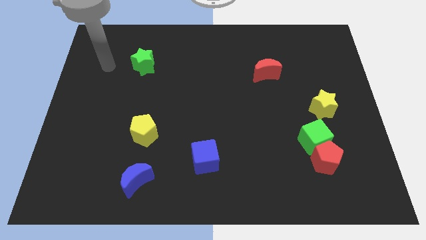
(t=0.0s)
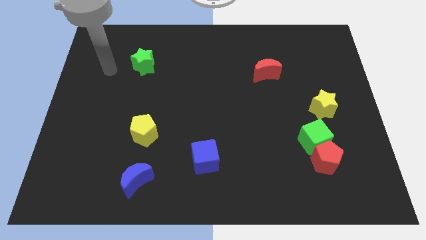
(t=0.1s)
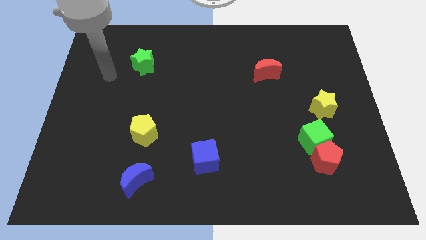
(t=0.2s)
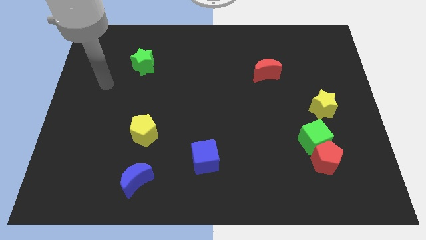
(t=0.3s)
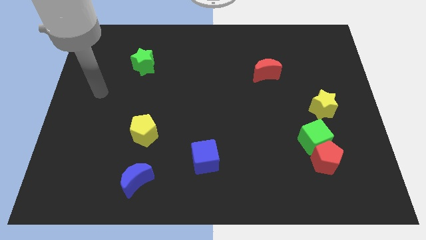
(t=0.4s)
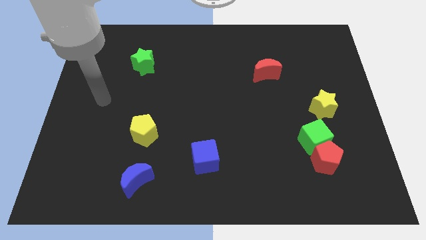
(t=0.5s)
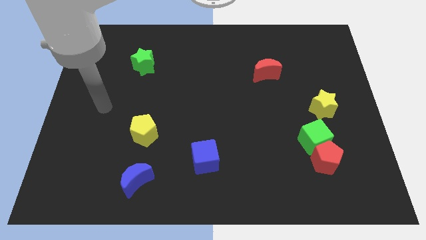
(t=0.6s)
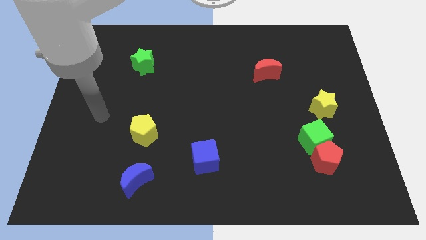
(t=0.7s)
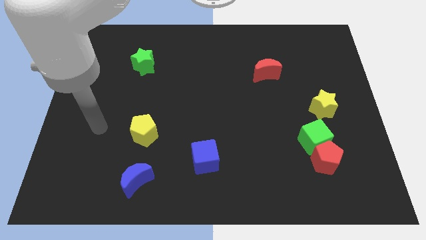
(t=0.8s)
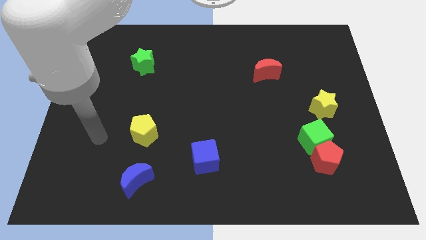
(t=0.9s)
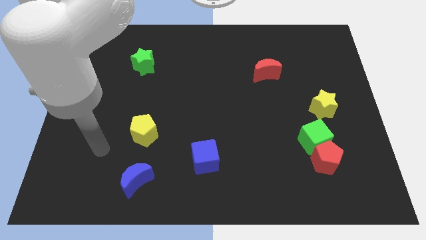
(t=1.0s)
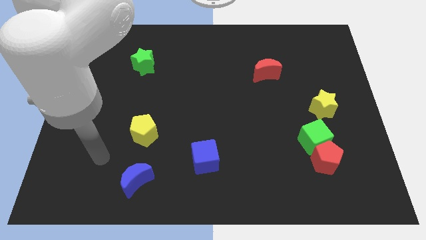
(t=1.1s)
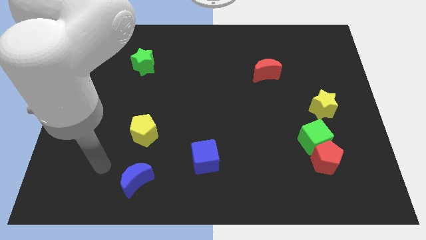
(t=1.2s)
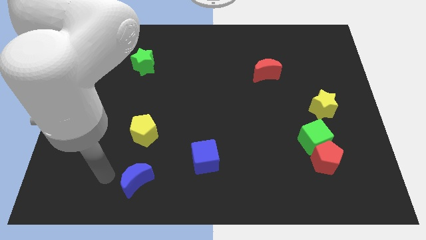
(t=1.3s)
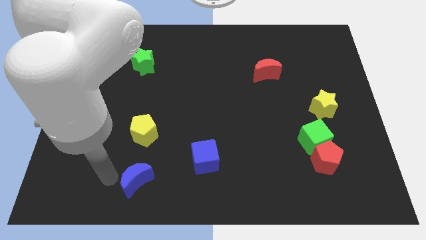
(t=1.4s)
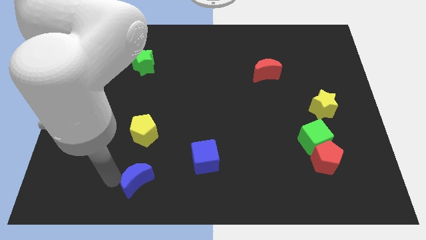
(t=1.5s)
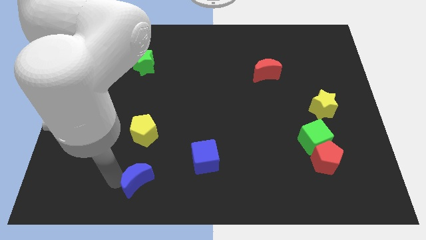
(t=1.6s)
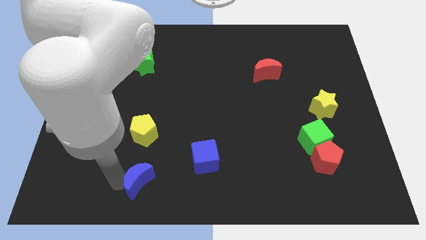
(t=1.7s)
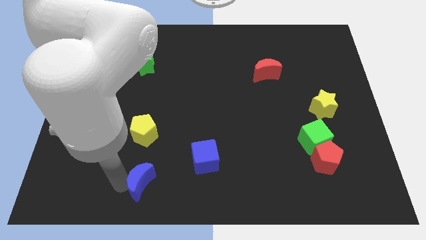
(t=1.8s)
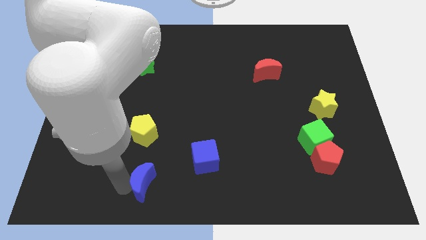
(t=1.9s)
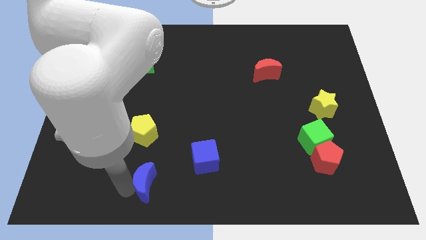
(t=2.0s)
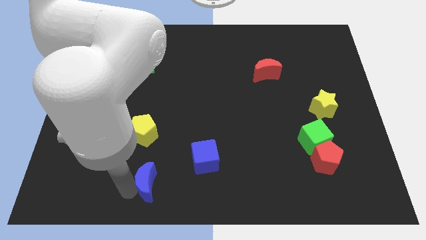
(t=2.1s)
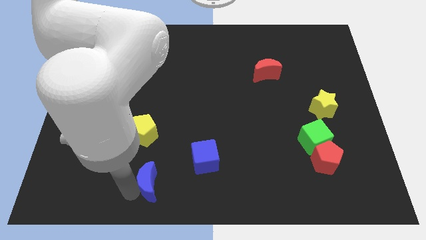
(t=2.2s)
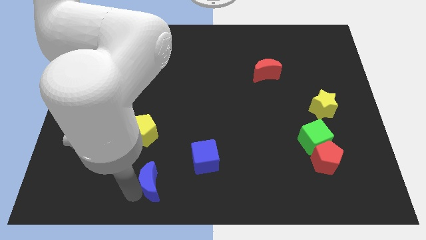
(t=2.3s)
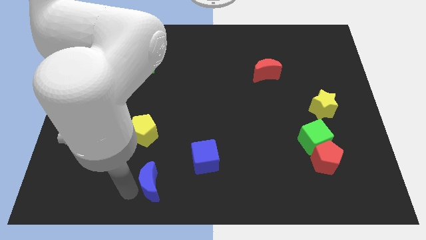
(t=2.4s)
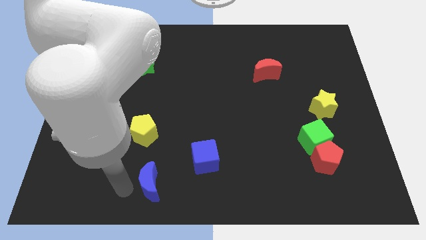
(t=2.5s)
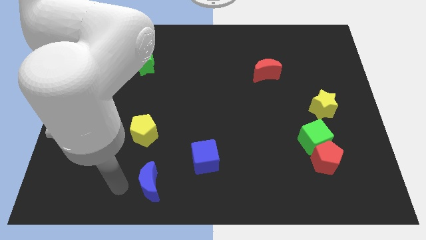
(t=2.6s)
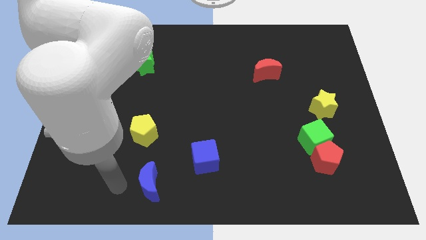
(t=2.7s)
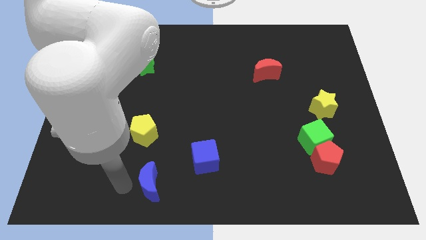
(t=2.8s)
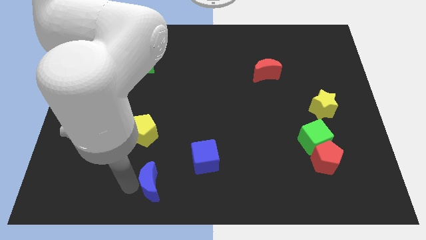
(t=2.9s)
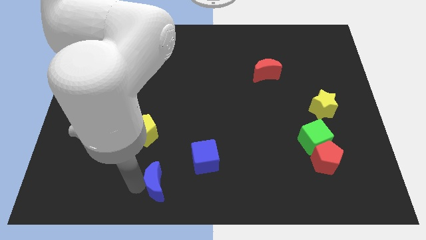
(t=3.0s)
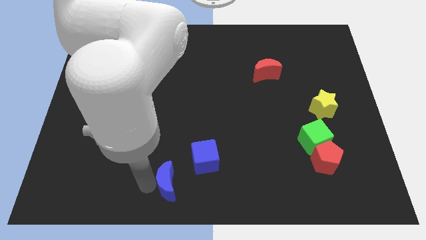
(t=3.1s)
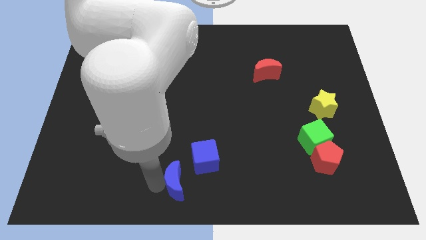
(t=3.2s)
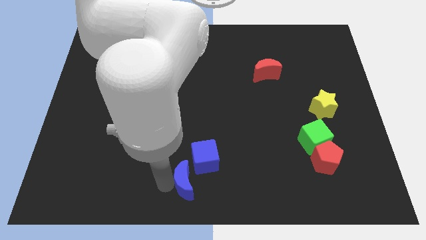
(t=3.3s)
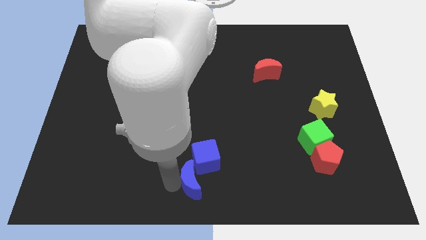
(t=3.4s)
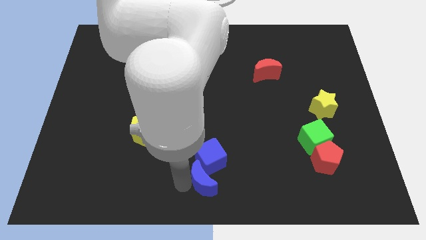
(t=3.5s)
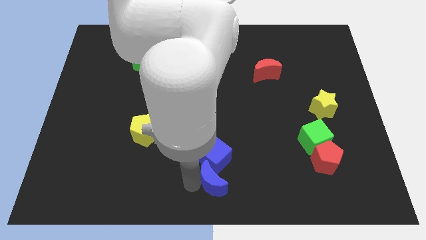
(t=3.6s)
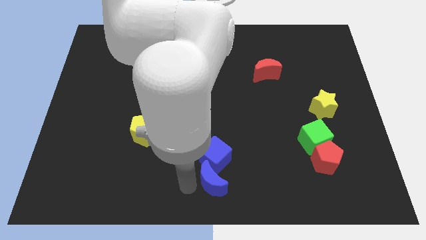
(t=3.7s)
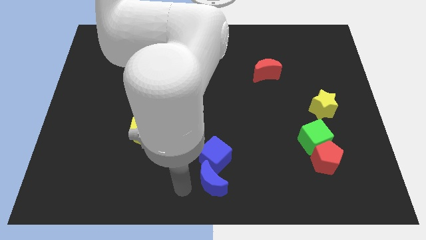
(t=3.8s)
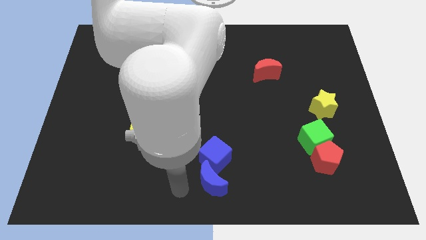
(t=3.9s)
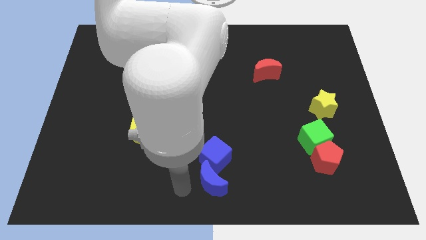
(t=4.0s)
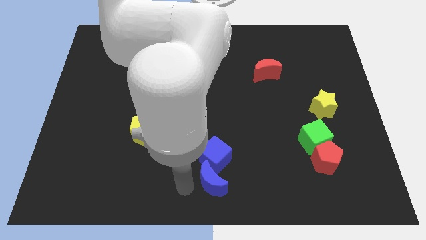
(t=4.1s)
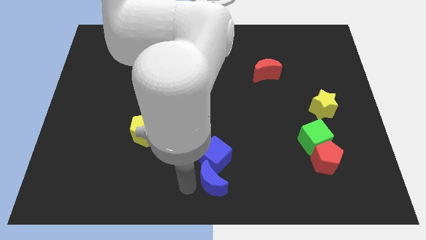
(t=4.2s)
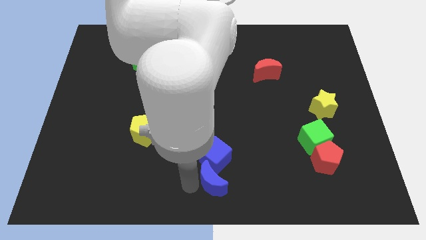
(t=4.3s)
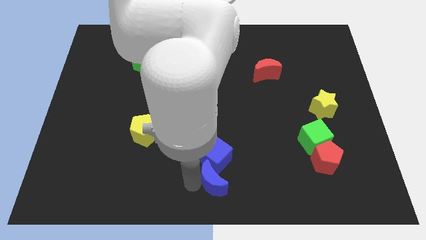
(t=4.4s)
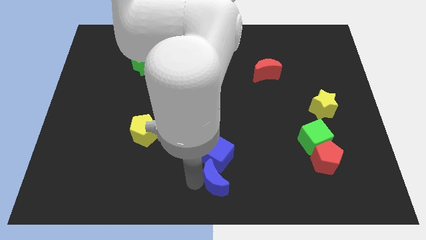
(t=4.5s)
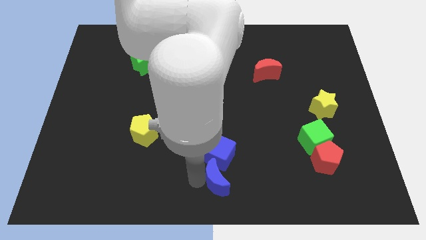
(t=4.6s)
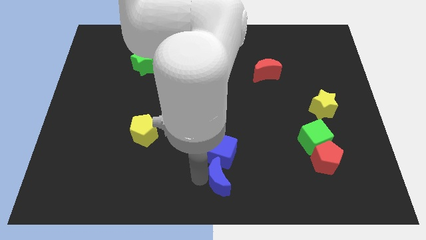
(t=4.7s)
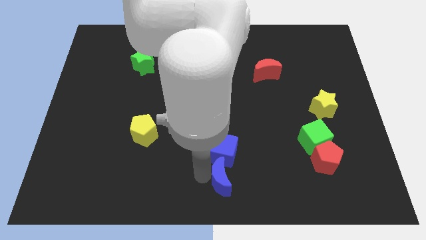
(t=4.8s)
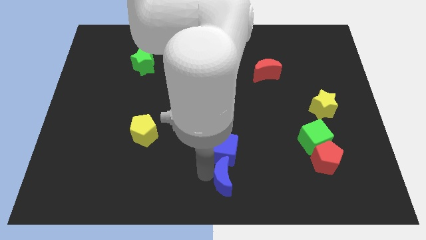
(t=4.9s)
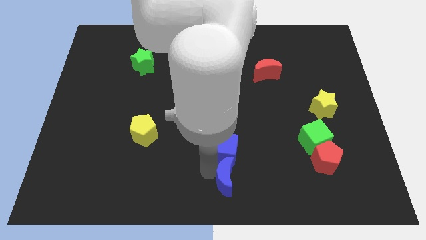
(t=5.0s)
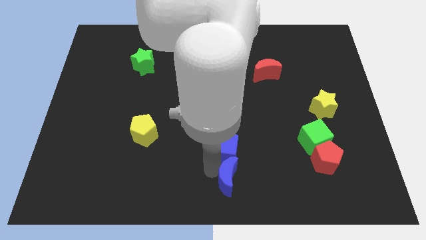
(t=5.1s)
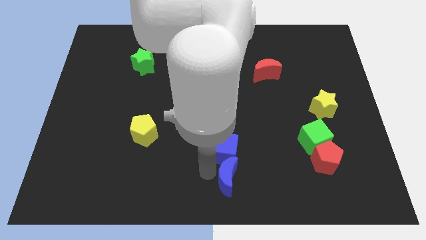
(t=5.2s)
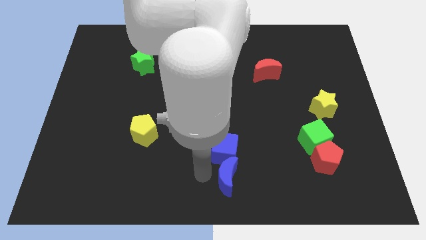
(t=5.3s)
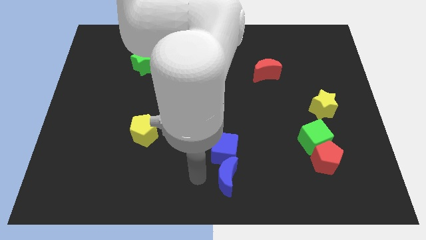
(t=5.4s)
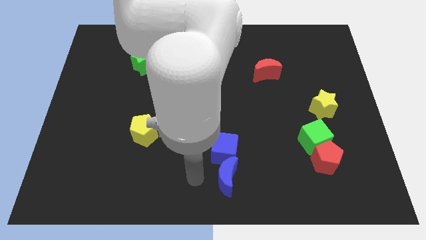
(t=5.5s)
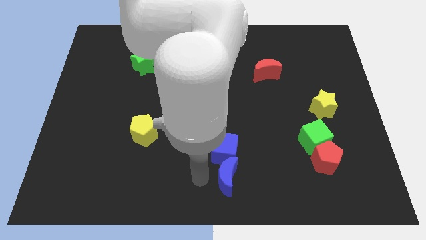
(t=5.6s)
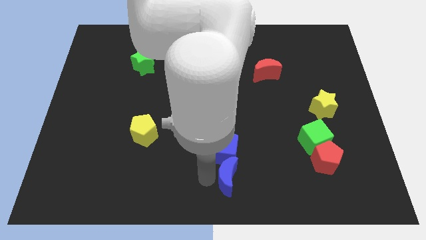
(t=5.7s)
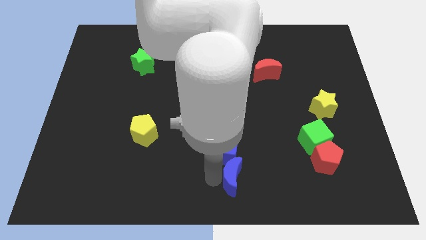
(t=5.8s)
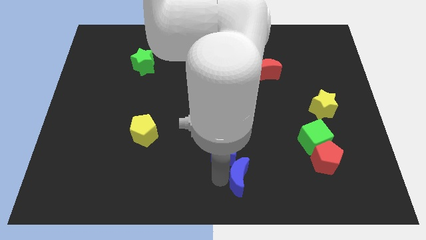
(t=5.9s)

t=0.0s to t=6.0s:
slide the blue moon right

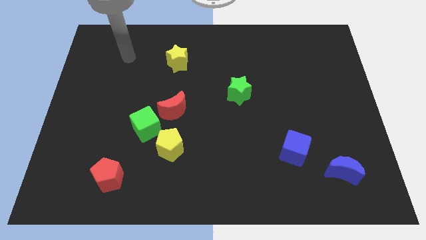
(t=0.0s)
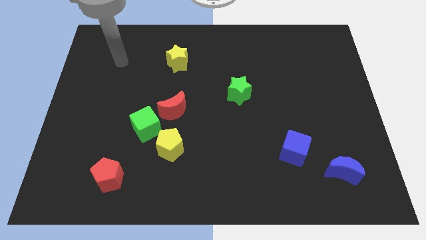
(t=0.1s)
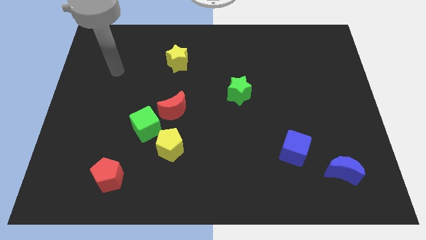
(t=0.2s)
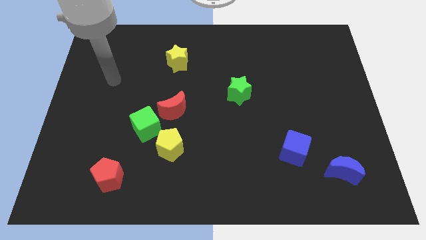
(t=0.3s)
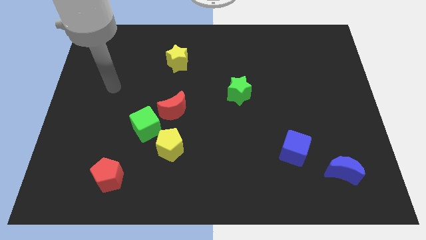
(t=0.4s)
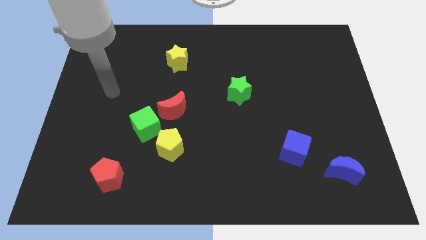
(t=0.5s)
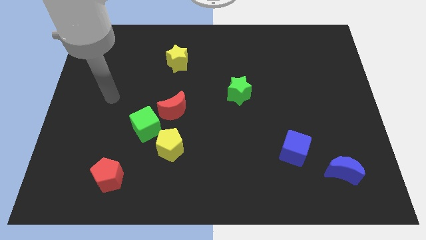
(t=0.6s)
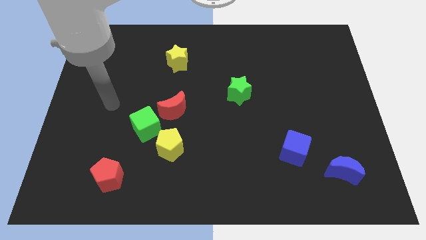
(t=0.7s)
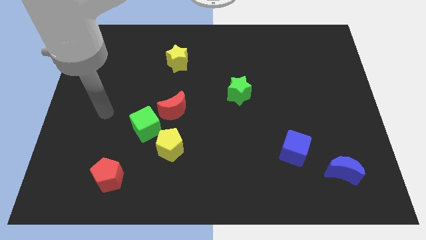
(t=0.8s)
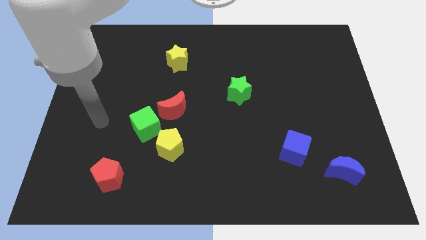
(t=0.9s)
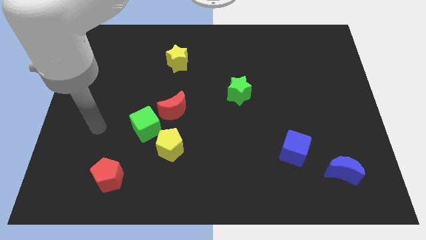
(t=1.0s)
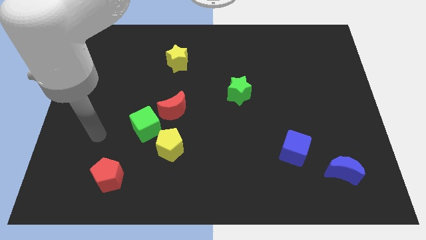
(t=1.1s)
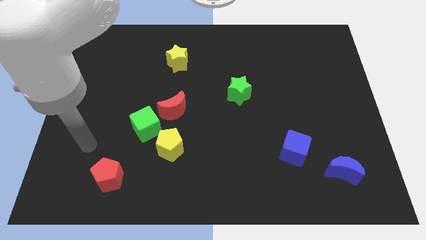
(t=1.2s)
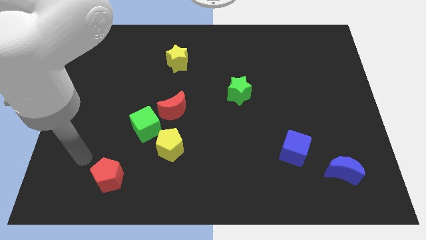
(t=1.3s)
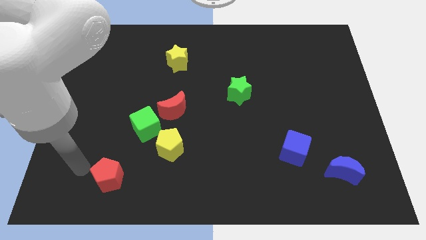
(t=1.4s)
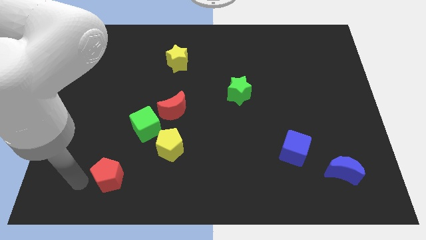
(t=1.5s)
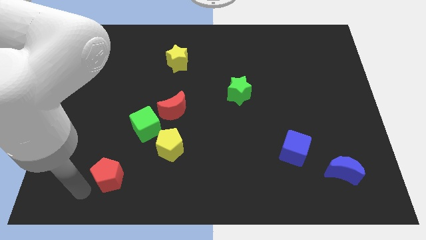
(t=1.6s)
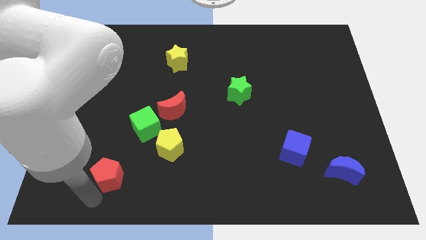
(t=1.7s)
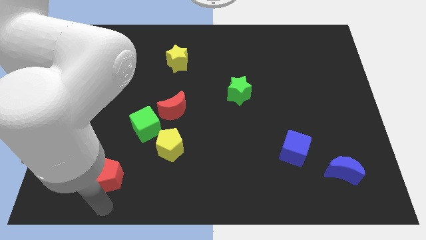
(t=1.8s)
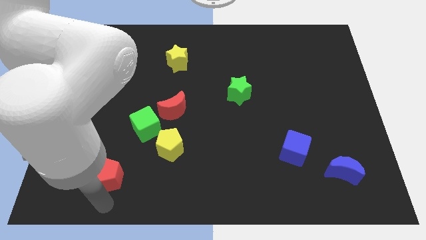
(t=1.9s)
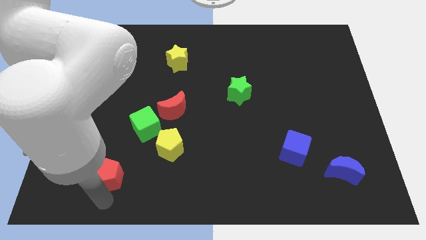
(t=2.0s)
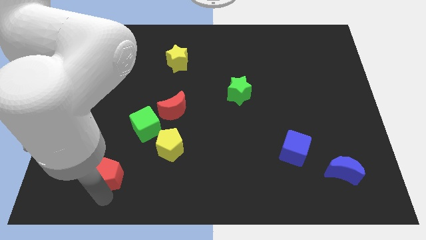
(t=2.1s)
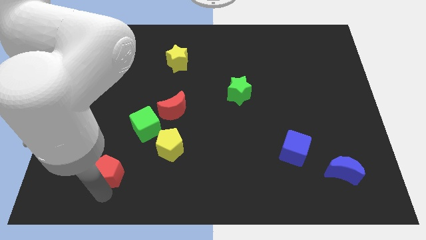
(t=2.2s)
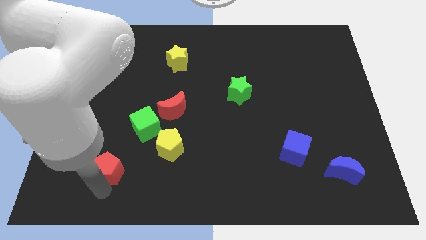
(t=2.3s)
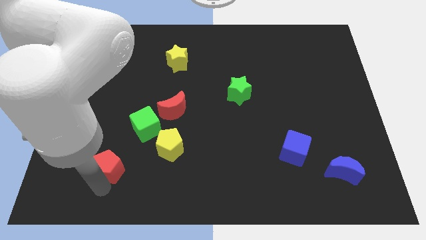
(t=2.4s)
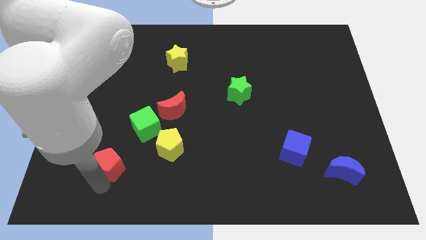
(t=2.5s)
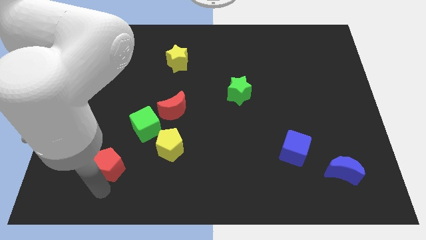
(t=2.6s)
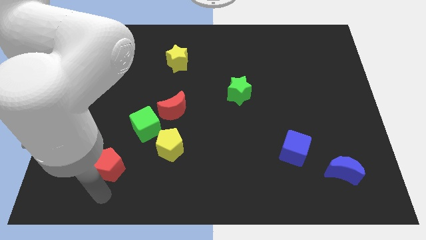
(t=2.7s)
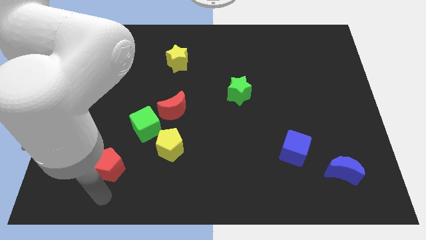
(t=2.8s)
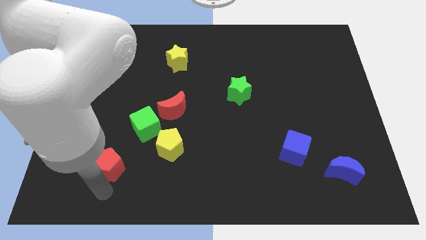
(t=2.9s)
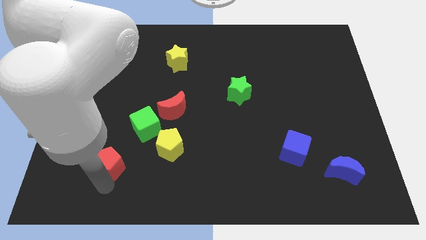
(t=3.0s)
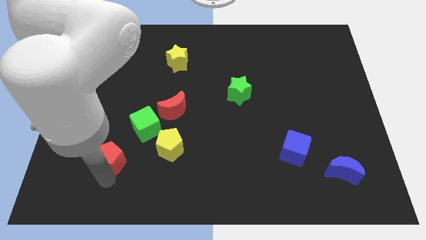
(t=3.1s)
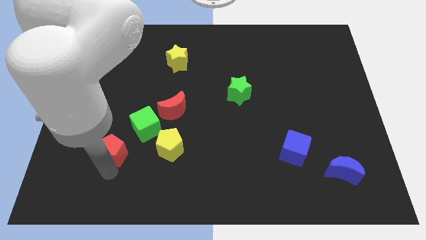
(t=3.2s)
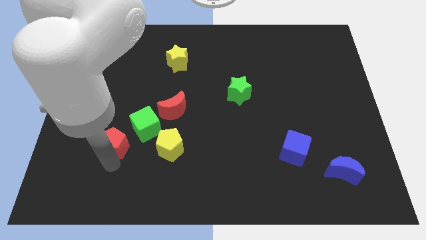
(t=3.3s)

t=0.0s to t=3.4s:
slide the red pentagon a little up
